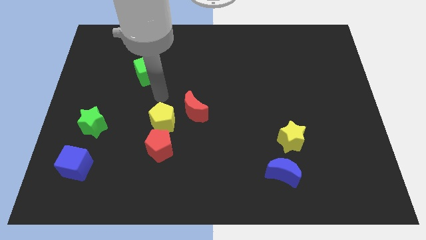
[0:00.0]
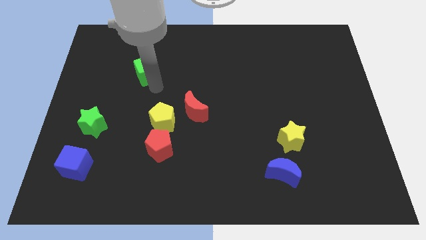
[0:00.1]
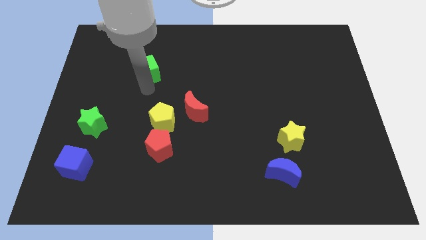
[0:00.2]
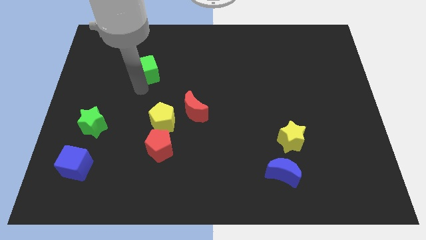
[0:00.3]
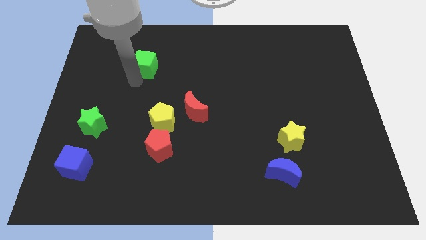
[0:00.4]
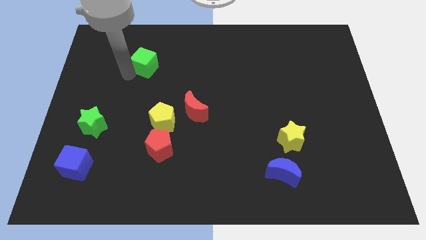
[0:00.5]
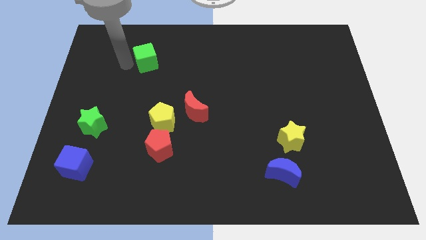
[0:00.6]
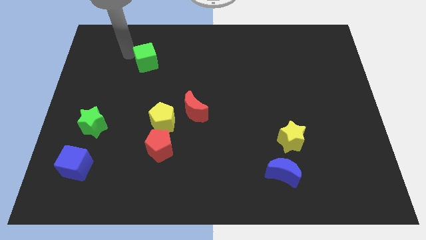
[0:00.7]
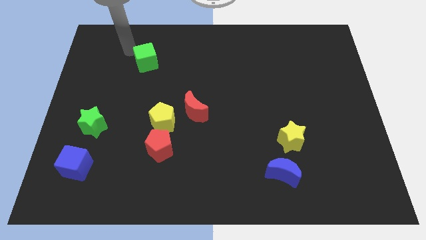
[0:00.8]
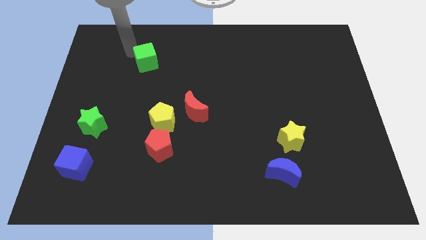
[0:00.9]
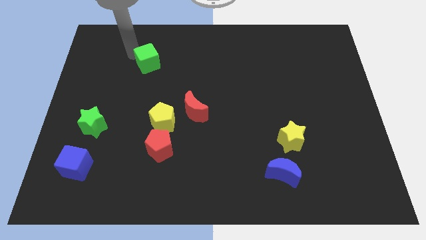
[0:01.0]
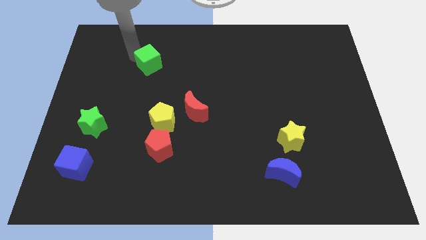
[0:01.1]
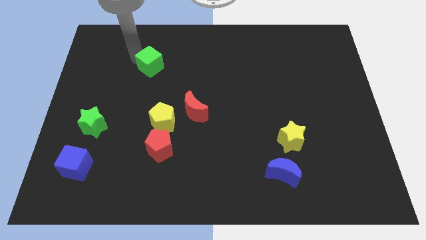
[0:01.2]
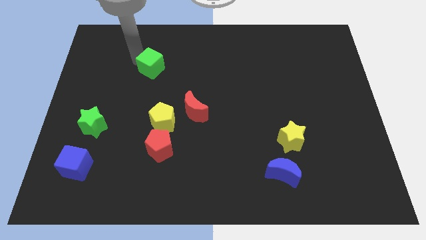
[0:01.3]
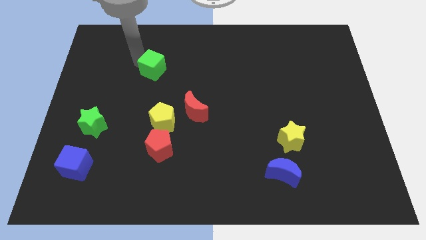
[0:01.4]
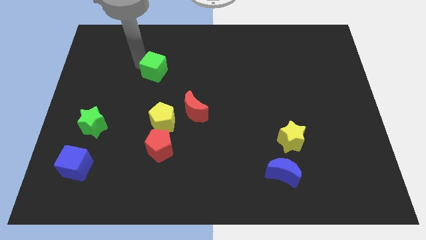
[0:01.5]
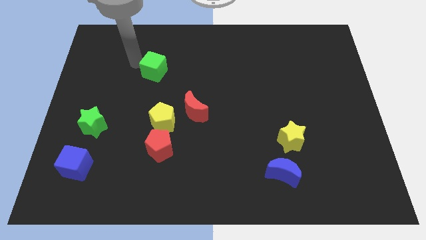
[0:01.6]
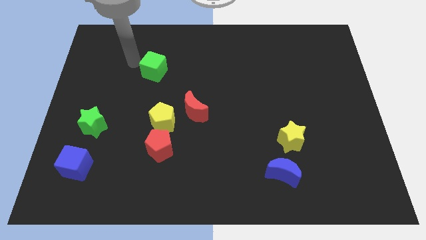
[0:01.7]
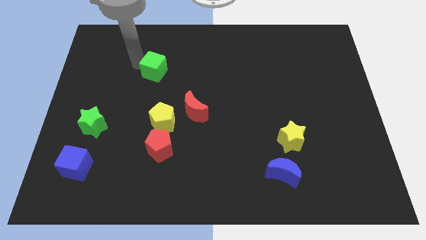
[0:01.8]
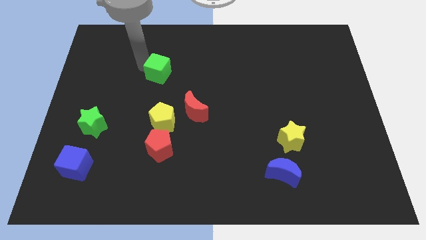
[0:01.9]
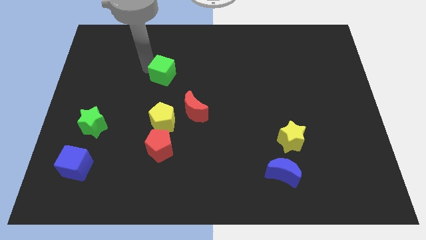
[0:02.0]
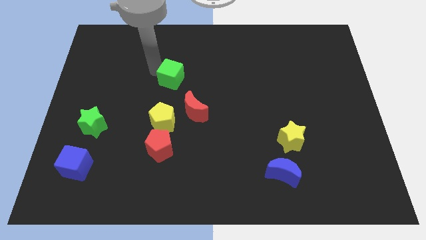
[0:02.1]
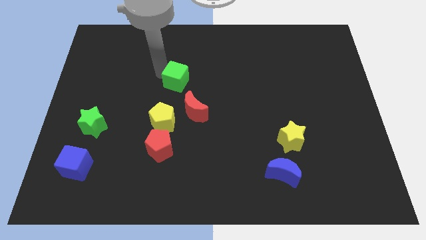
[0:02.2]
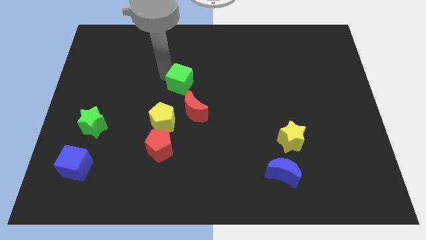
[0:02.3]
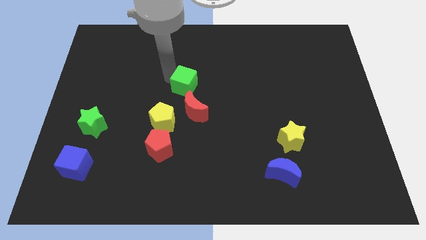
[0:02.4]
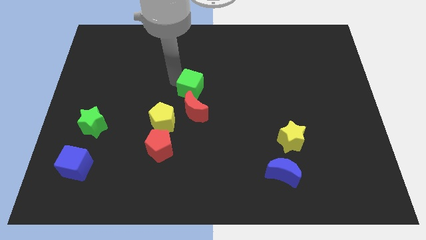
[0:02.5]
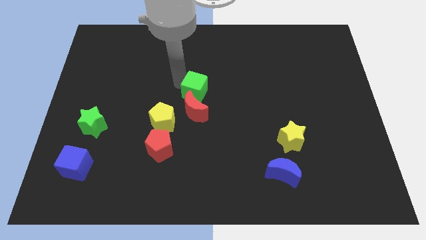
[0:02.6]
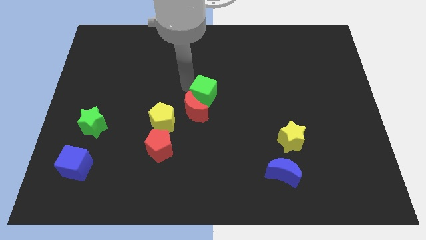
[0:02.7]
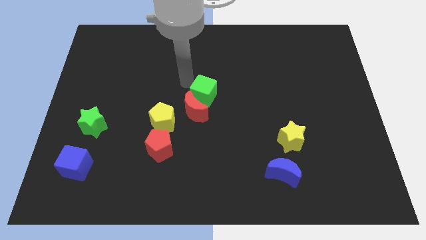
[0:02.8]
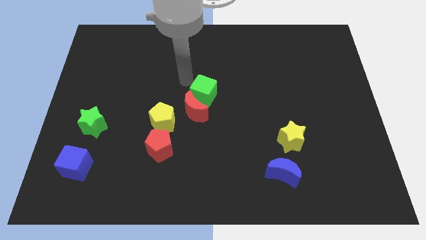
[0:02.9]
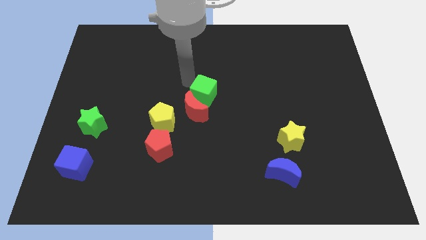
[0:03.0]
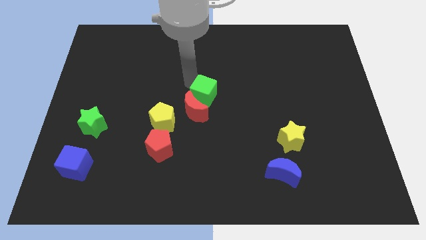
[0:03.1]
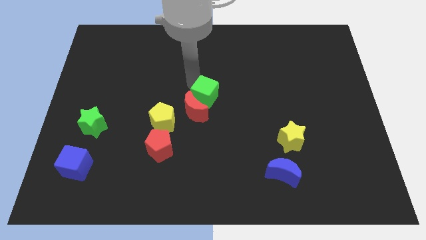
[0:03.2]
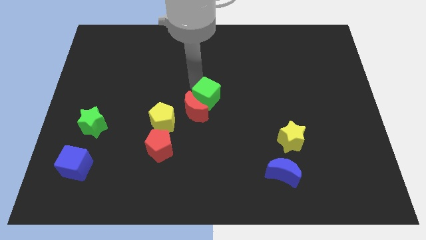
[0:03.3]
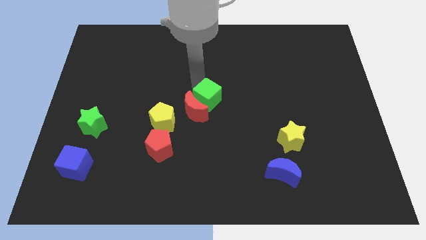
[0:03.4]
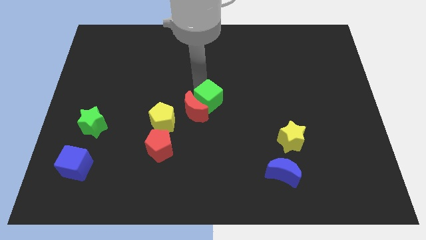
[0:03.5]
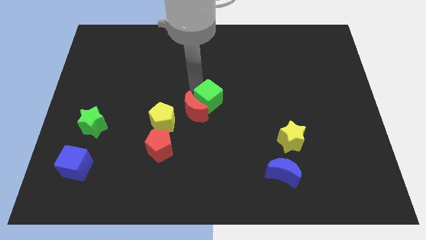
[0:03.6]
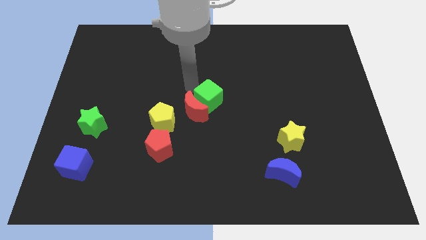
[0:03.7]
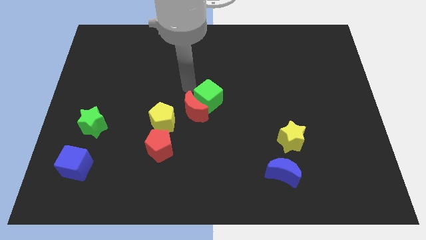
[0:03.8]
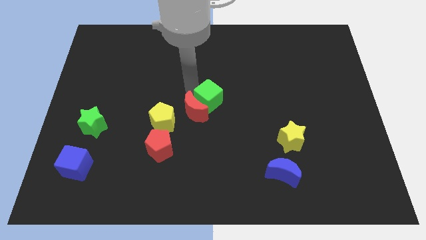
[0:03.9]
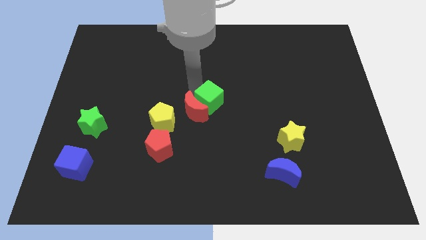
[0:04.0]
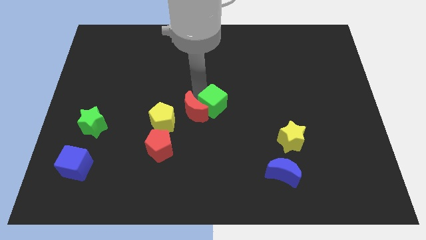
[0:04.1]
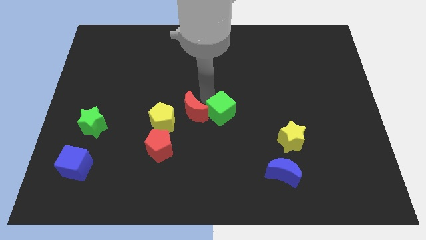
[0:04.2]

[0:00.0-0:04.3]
move the green cube down and right diagonally

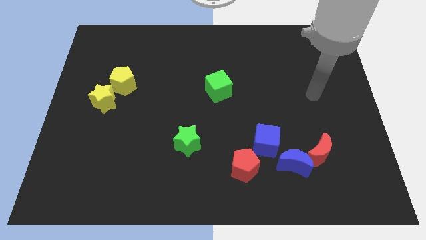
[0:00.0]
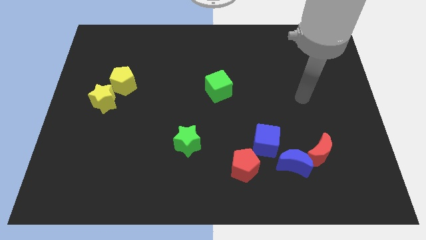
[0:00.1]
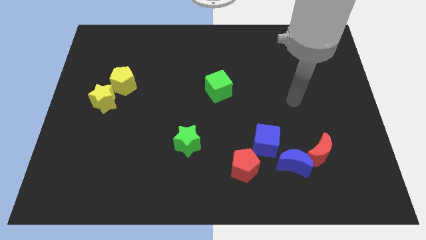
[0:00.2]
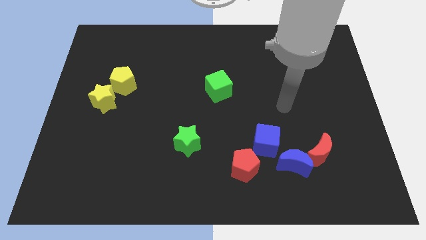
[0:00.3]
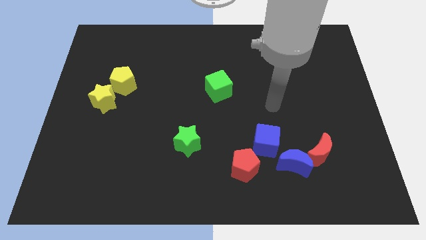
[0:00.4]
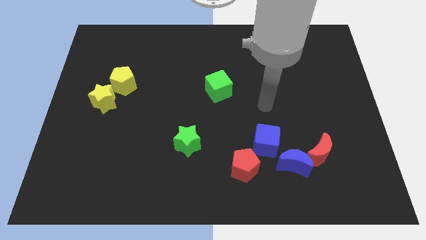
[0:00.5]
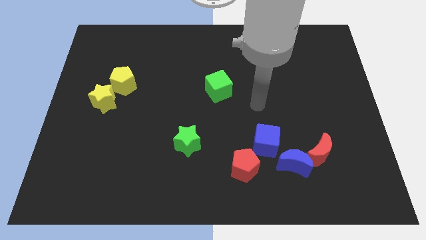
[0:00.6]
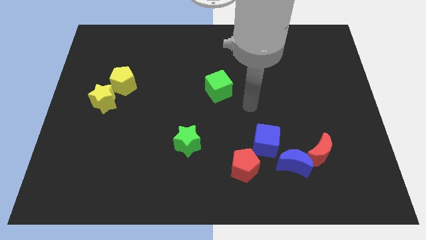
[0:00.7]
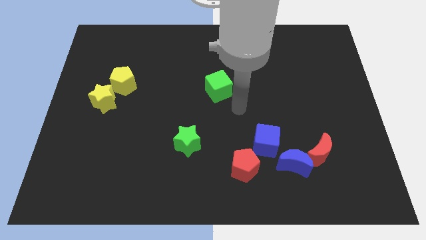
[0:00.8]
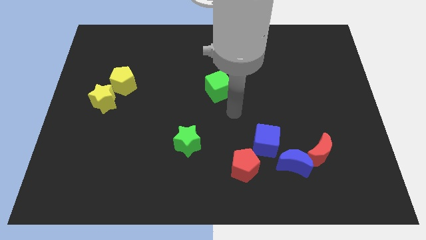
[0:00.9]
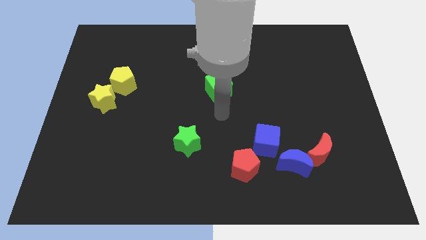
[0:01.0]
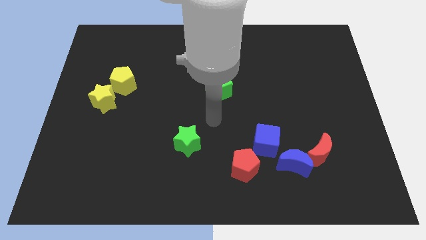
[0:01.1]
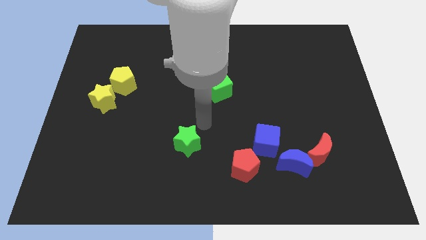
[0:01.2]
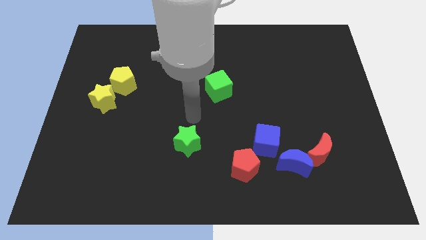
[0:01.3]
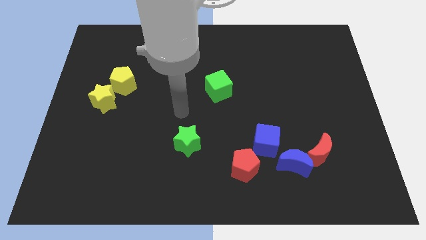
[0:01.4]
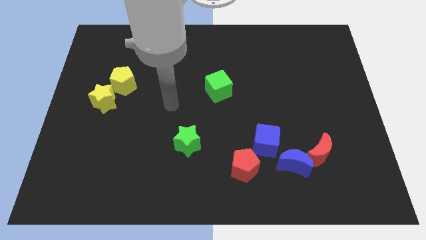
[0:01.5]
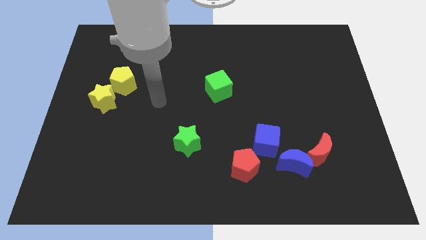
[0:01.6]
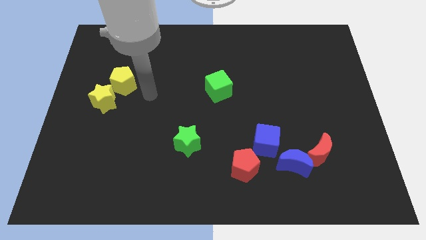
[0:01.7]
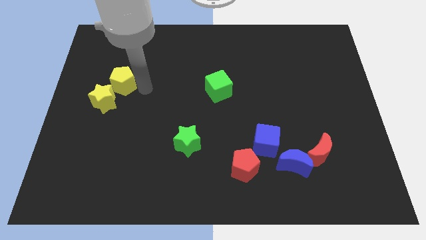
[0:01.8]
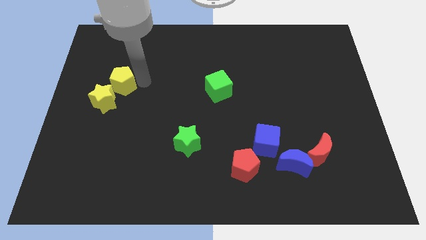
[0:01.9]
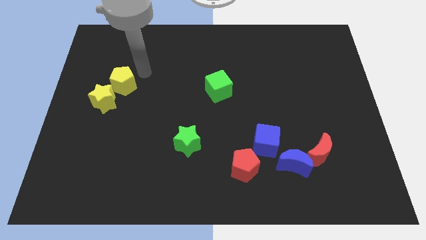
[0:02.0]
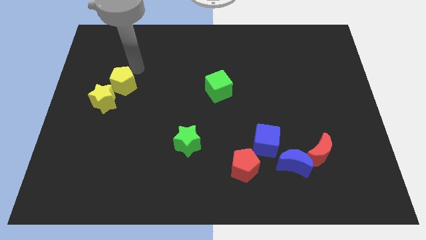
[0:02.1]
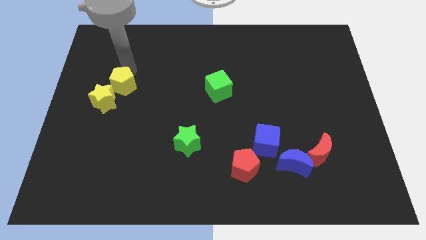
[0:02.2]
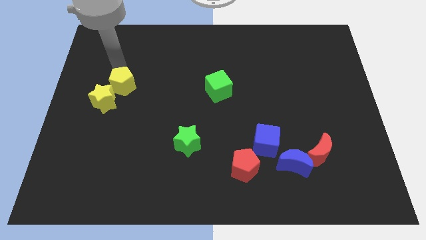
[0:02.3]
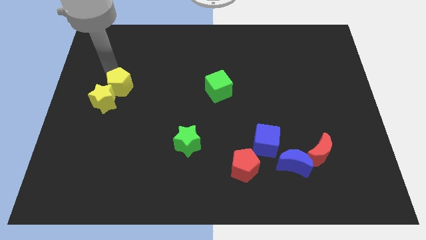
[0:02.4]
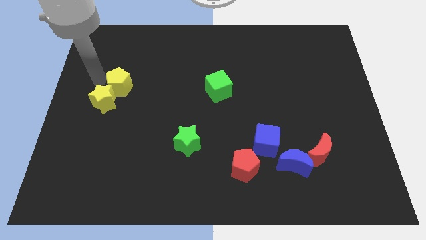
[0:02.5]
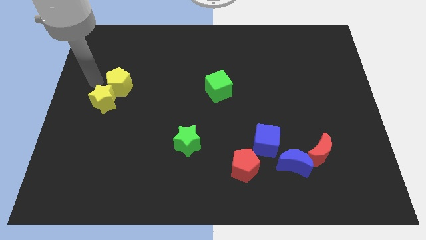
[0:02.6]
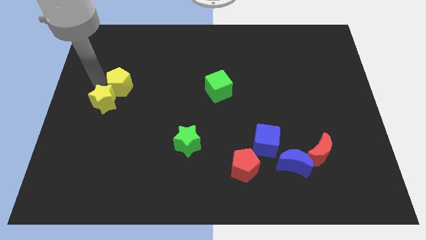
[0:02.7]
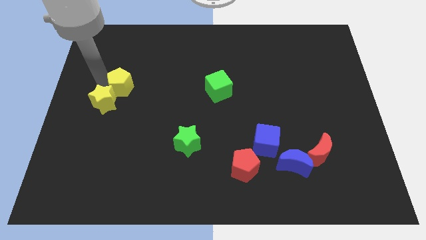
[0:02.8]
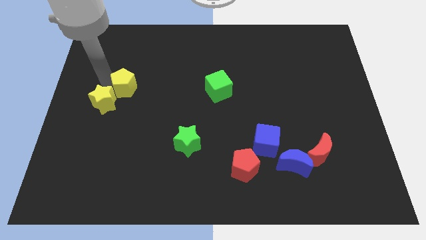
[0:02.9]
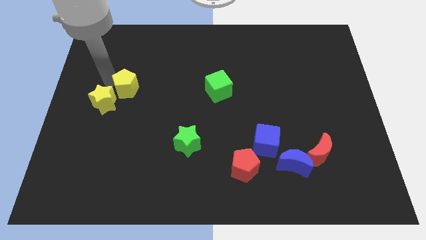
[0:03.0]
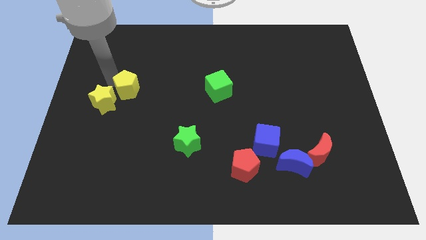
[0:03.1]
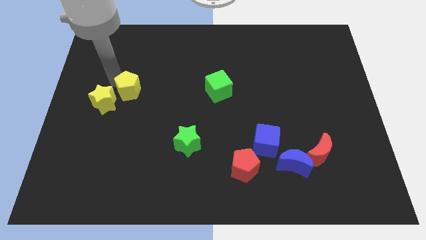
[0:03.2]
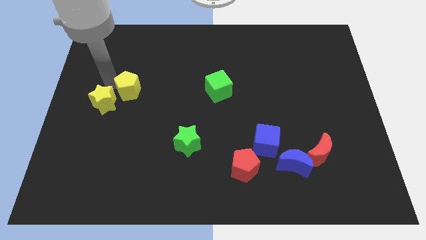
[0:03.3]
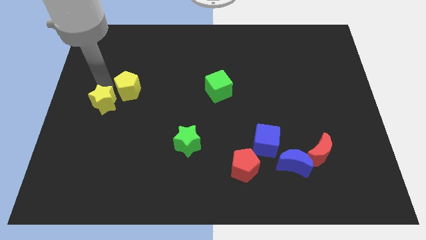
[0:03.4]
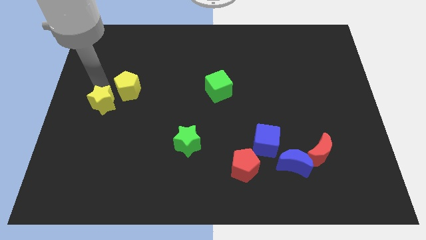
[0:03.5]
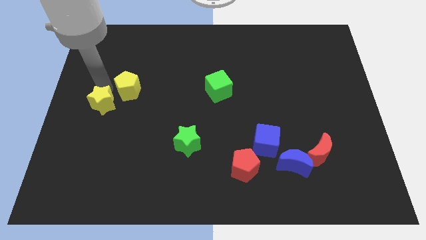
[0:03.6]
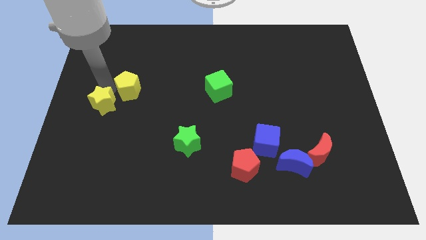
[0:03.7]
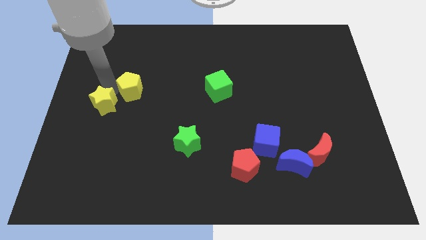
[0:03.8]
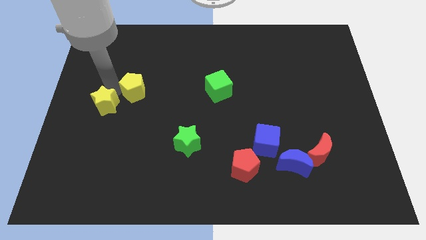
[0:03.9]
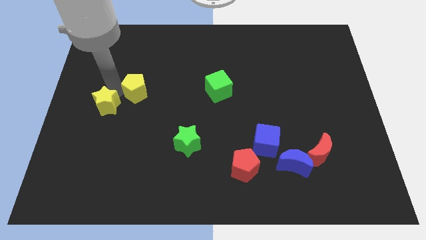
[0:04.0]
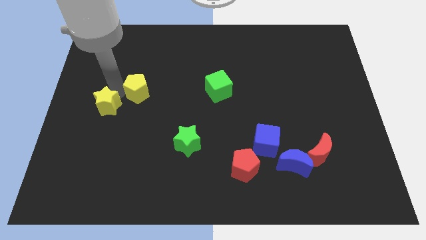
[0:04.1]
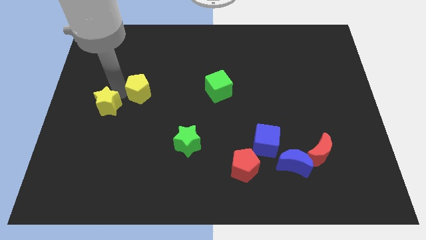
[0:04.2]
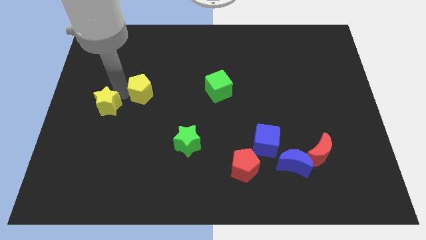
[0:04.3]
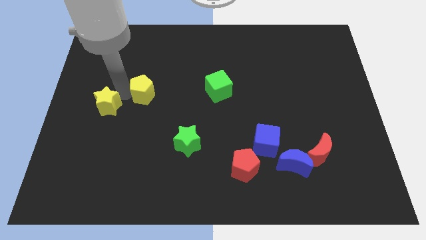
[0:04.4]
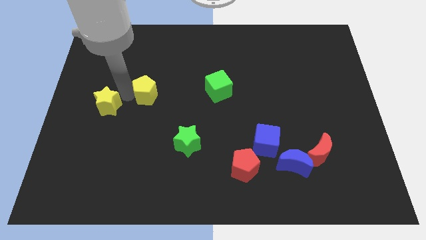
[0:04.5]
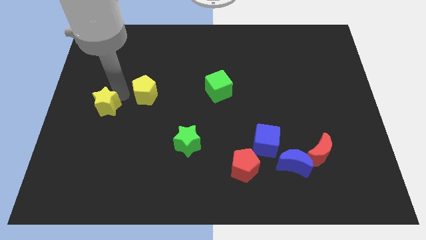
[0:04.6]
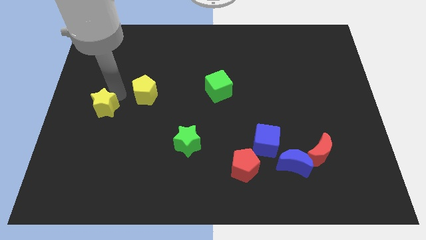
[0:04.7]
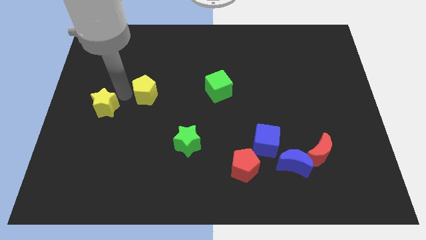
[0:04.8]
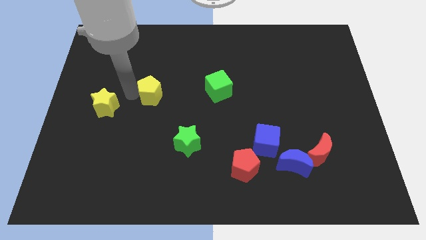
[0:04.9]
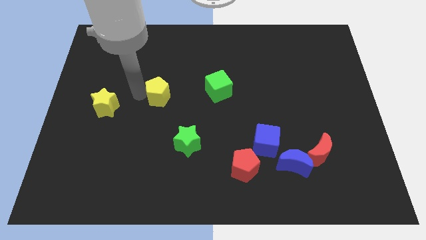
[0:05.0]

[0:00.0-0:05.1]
slide the yellow pentagon a bit right
